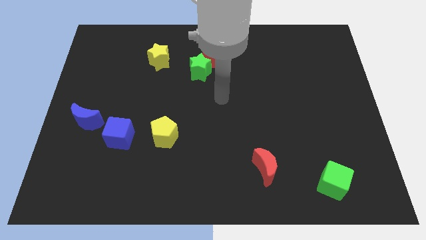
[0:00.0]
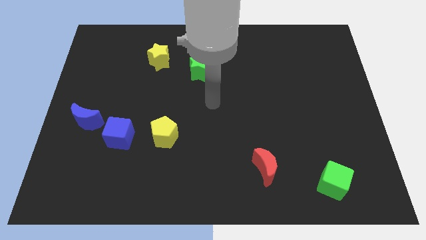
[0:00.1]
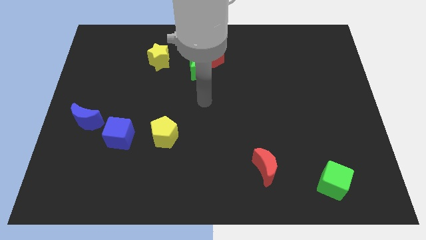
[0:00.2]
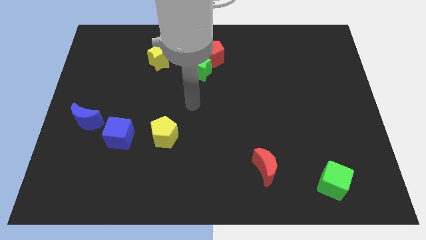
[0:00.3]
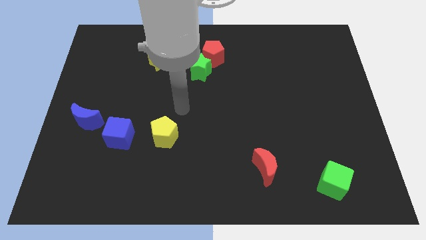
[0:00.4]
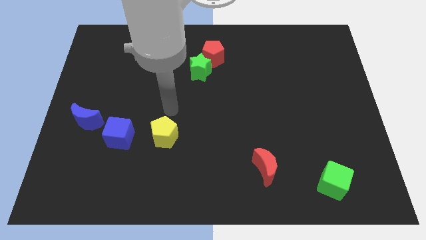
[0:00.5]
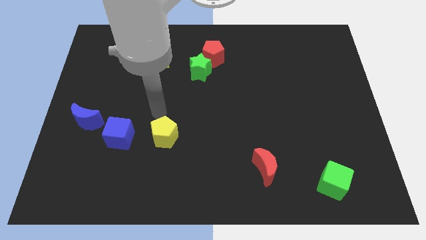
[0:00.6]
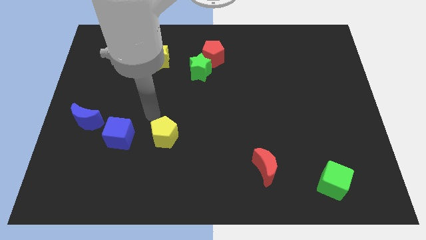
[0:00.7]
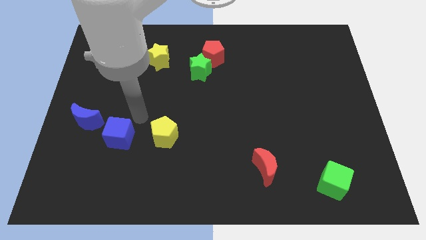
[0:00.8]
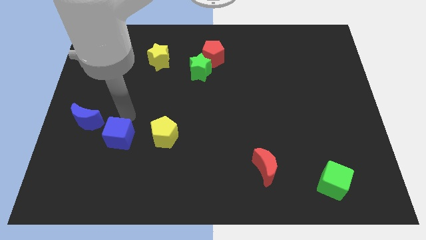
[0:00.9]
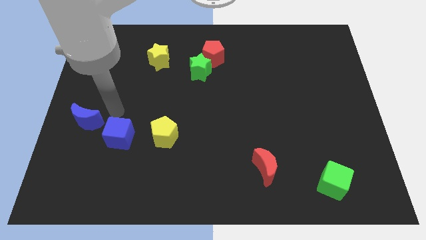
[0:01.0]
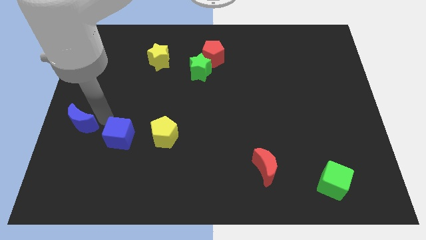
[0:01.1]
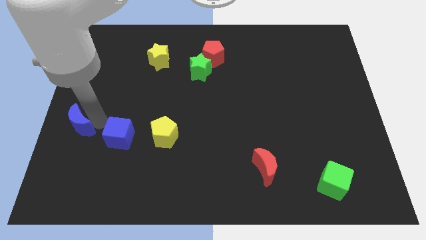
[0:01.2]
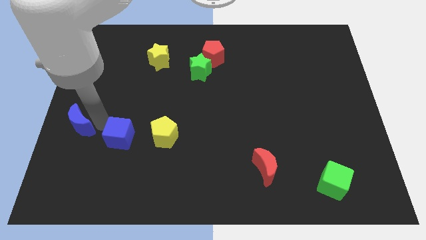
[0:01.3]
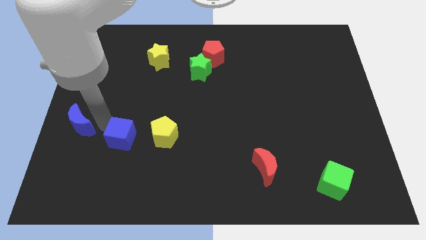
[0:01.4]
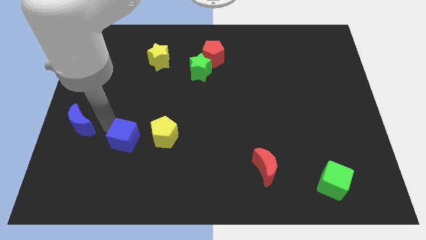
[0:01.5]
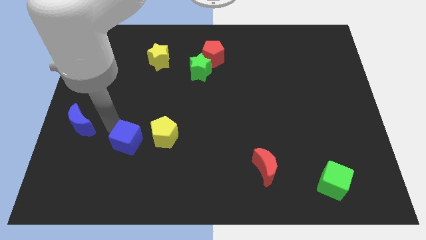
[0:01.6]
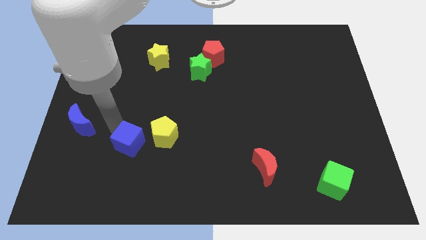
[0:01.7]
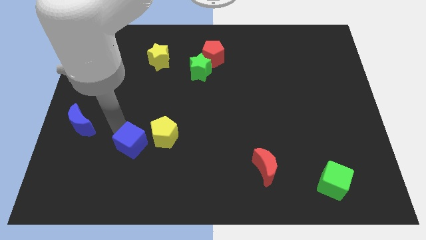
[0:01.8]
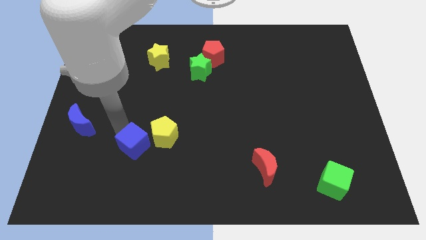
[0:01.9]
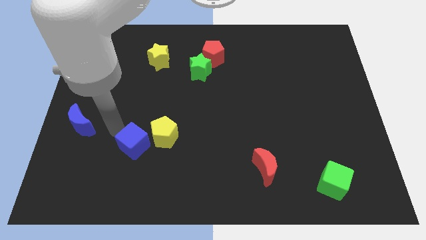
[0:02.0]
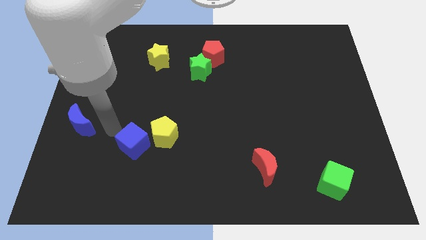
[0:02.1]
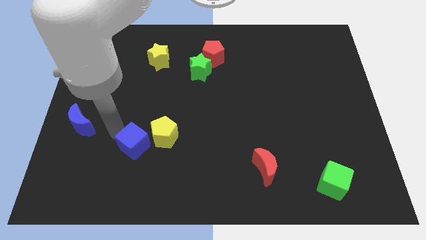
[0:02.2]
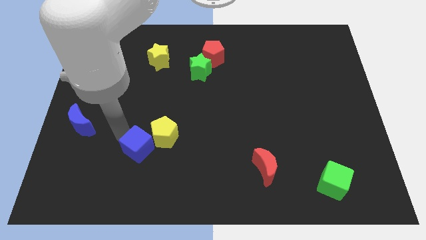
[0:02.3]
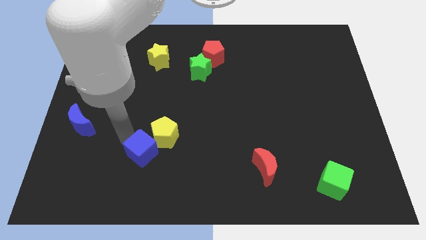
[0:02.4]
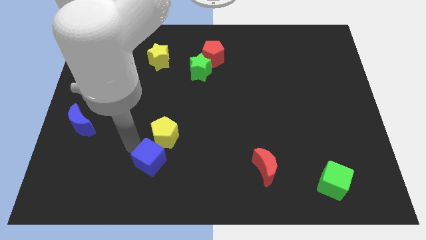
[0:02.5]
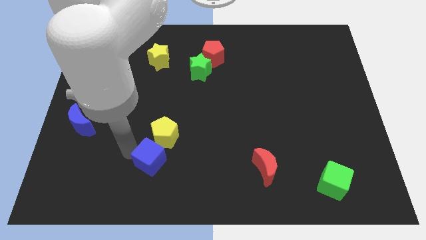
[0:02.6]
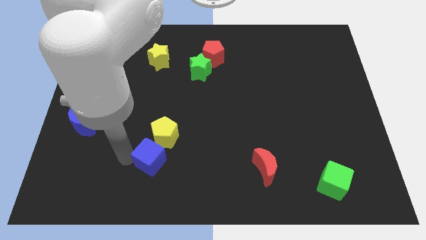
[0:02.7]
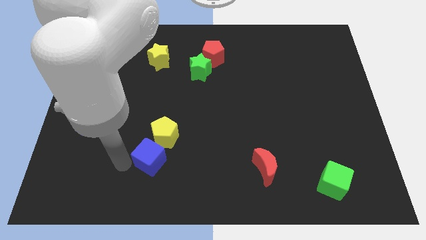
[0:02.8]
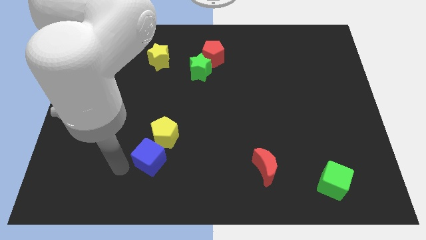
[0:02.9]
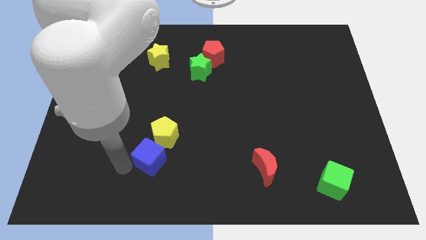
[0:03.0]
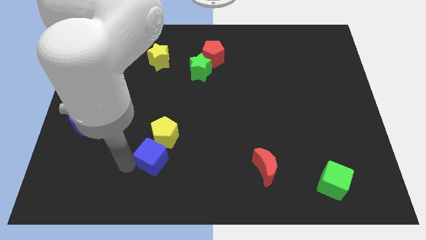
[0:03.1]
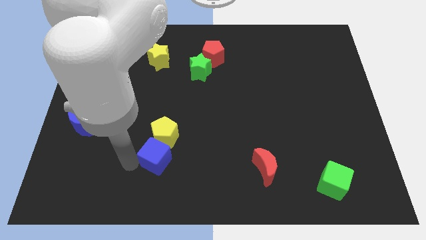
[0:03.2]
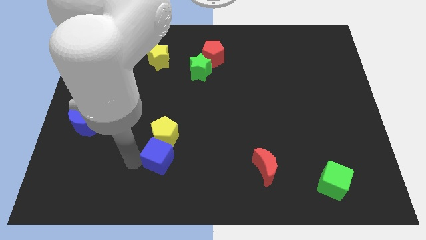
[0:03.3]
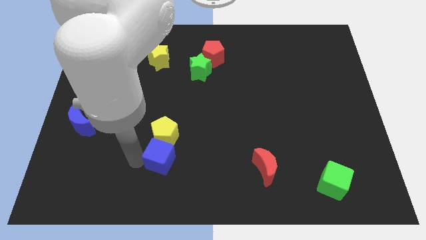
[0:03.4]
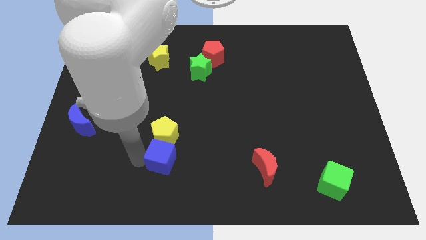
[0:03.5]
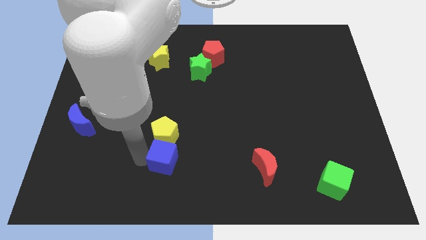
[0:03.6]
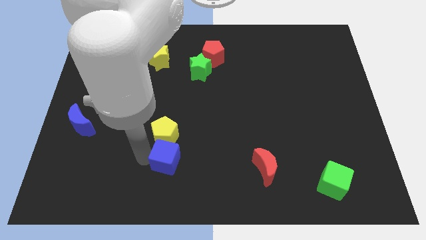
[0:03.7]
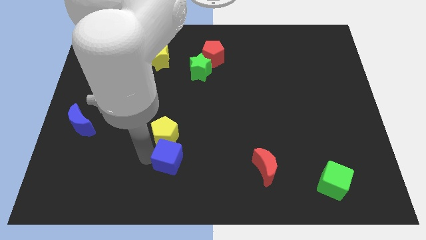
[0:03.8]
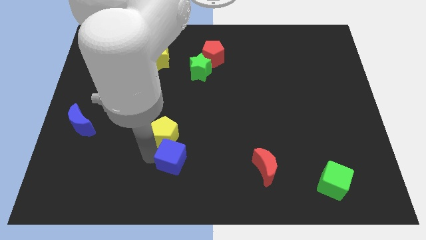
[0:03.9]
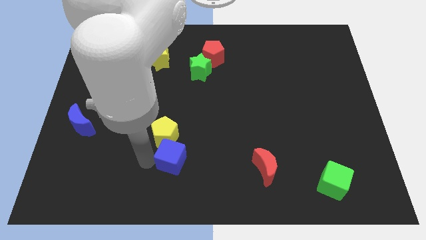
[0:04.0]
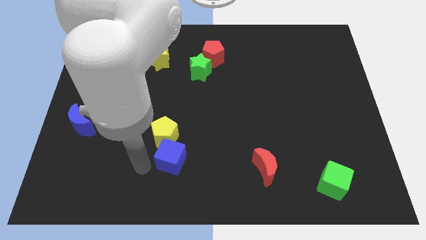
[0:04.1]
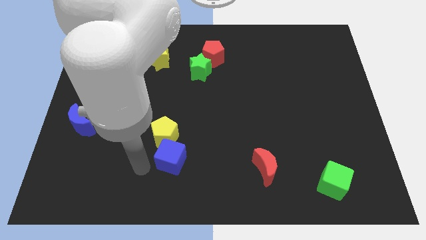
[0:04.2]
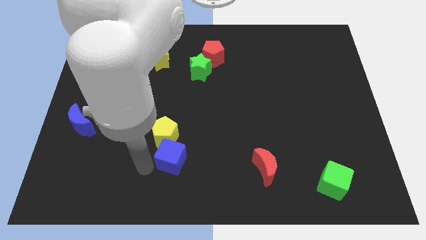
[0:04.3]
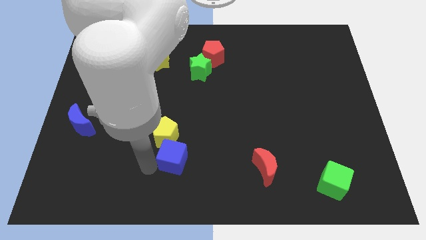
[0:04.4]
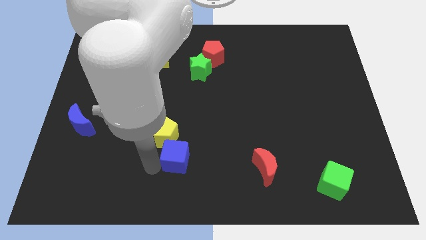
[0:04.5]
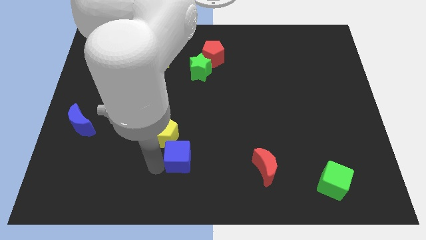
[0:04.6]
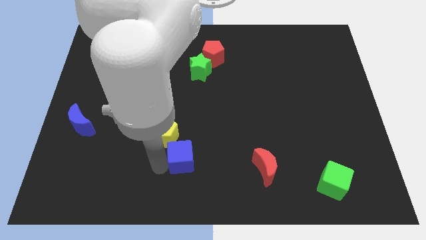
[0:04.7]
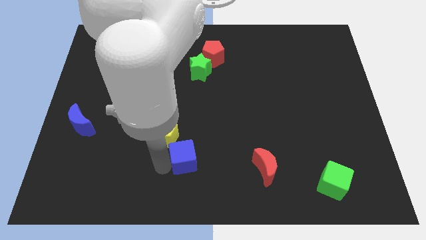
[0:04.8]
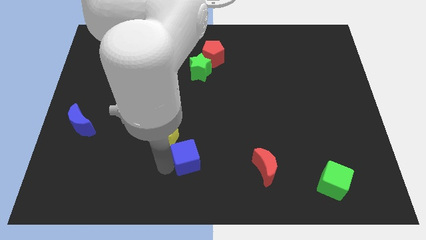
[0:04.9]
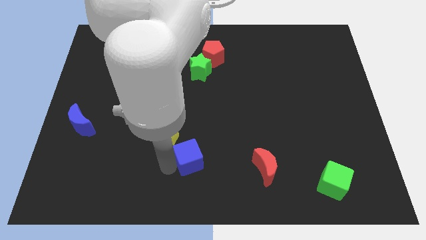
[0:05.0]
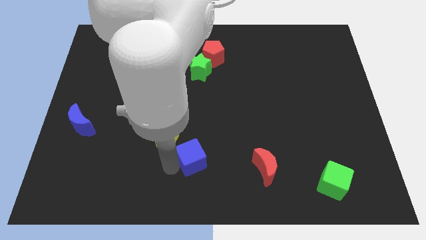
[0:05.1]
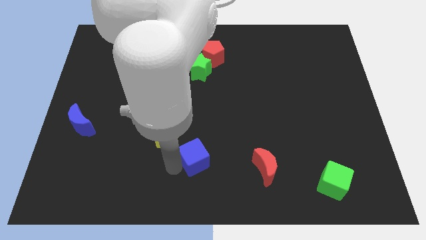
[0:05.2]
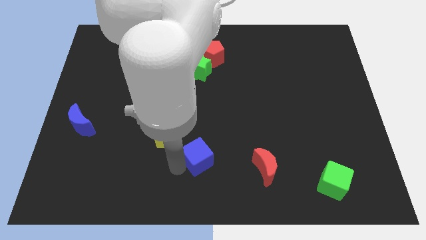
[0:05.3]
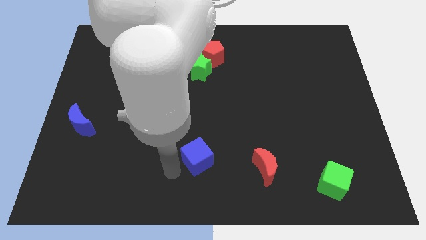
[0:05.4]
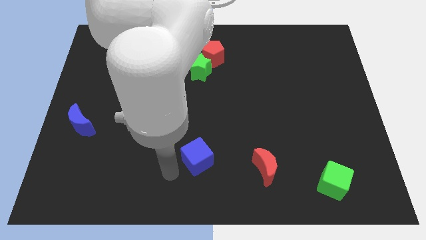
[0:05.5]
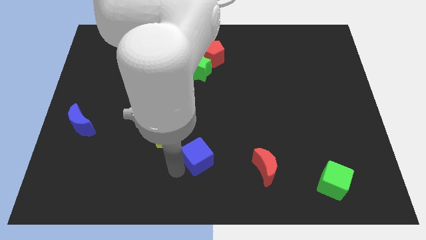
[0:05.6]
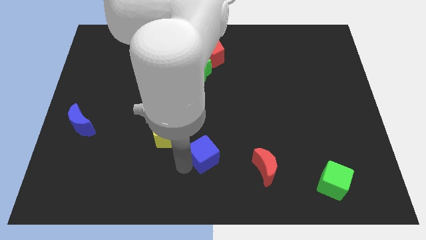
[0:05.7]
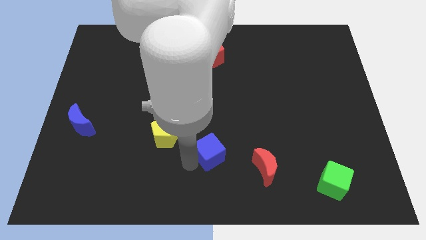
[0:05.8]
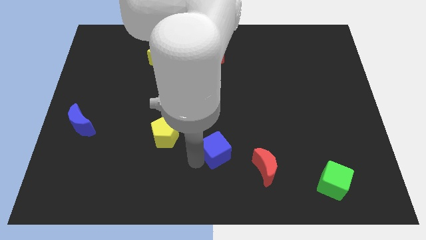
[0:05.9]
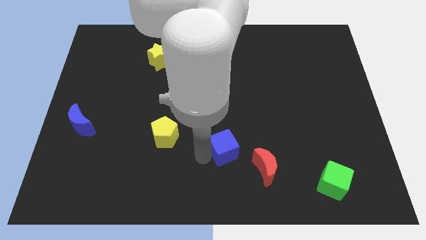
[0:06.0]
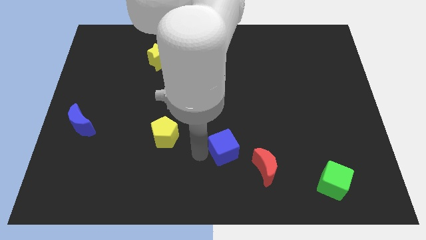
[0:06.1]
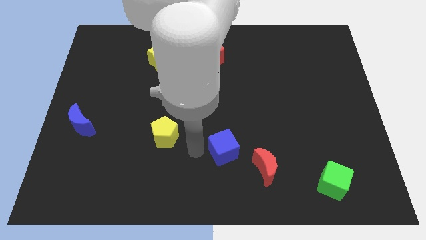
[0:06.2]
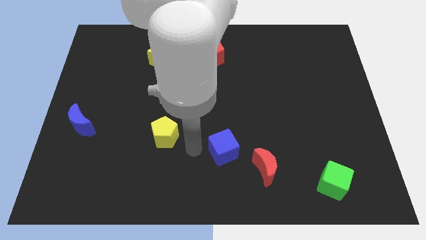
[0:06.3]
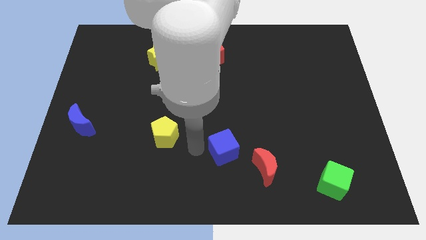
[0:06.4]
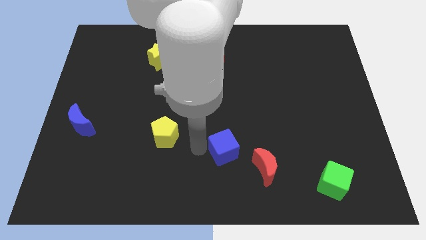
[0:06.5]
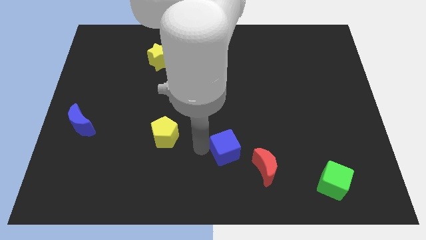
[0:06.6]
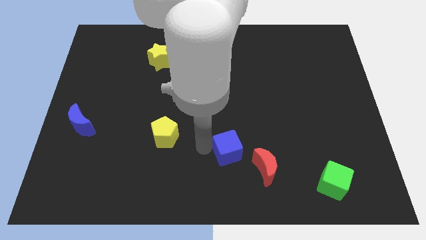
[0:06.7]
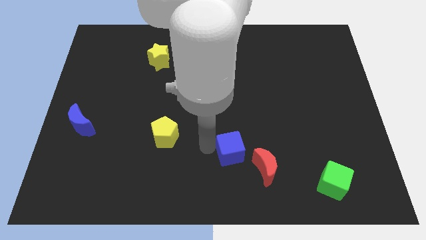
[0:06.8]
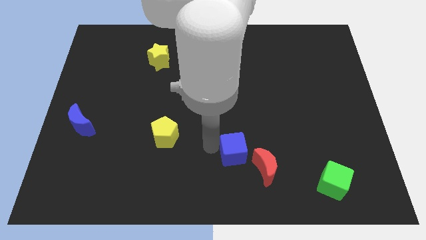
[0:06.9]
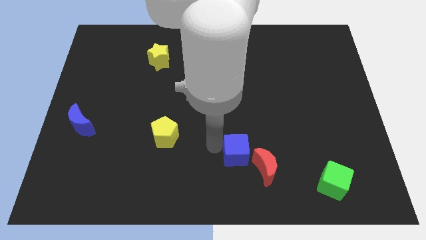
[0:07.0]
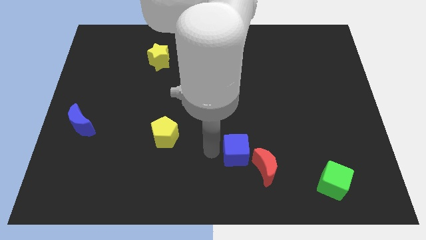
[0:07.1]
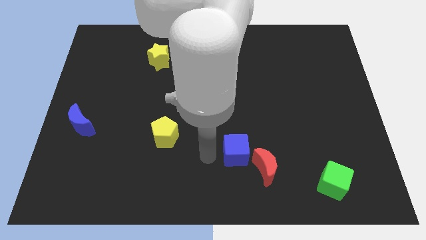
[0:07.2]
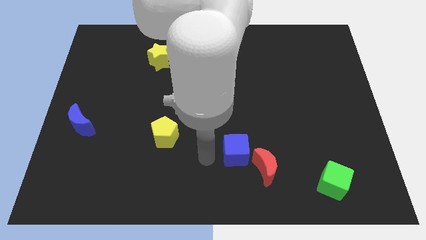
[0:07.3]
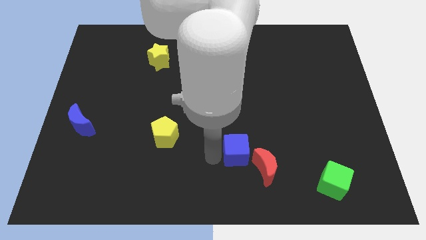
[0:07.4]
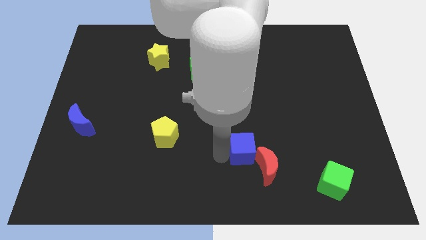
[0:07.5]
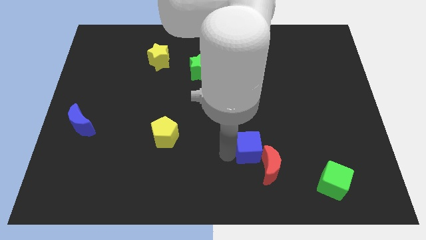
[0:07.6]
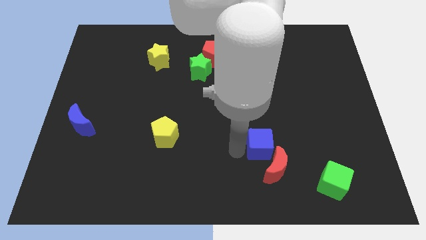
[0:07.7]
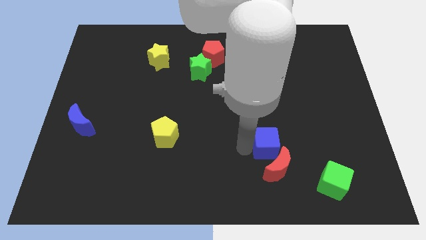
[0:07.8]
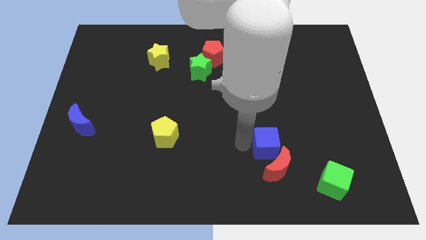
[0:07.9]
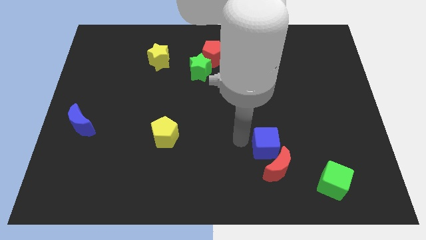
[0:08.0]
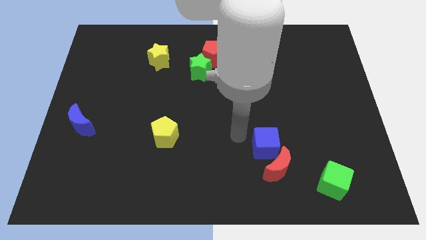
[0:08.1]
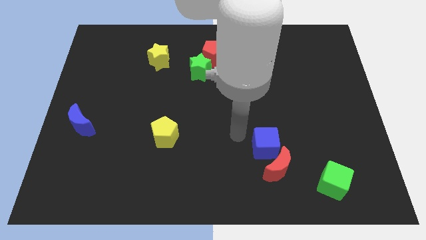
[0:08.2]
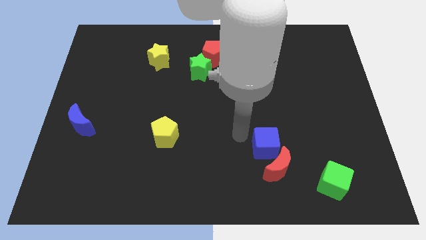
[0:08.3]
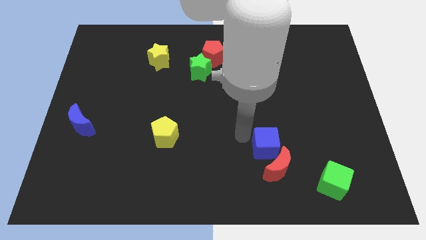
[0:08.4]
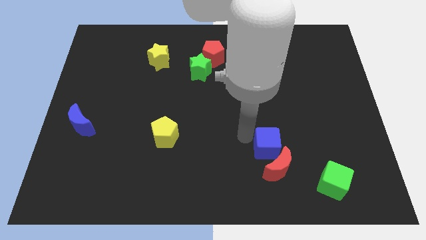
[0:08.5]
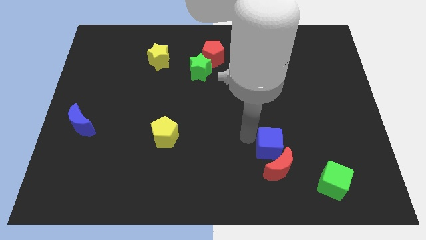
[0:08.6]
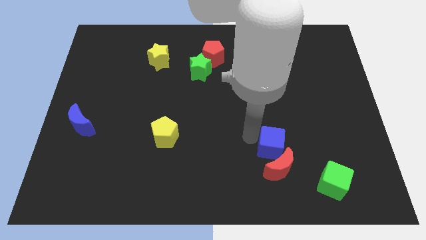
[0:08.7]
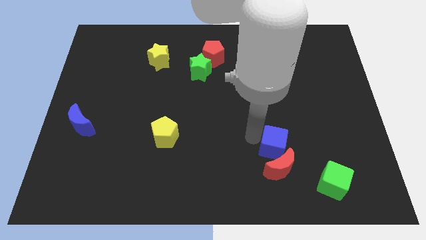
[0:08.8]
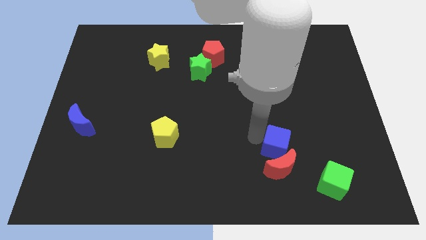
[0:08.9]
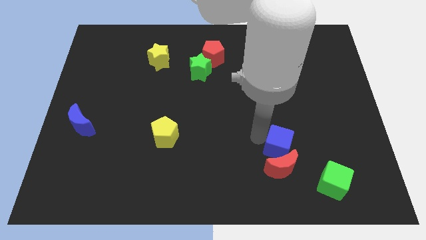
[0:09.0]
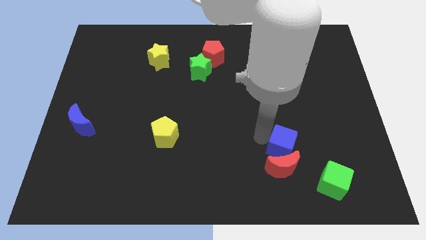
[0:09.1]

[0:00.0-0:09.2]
put the blue cube to the top left side of the green cube
